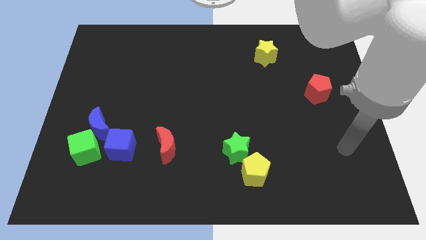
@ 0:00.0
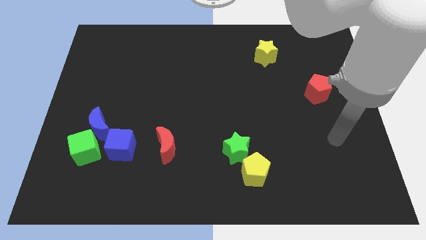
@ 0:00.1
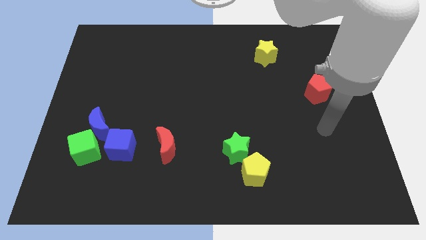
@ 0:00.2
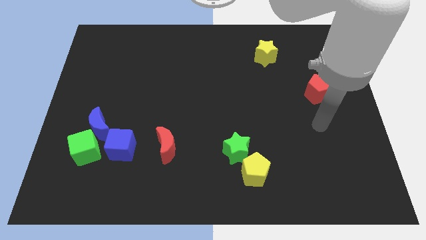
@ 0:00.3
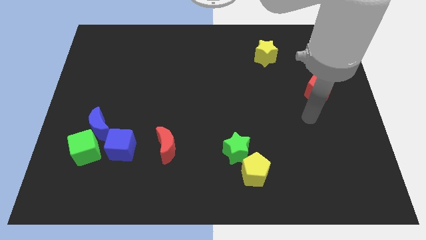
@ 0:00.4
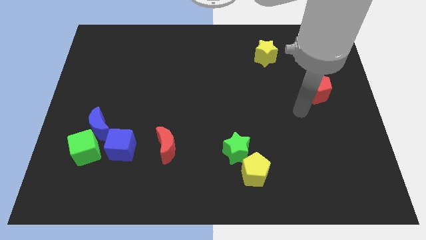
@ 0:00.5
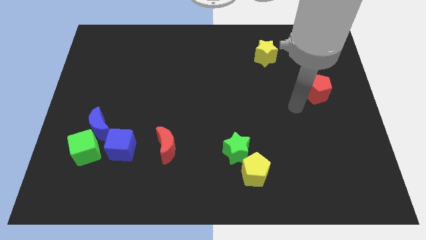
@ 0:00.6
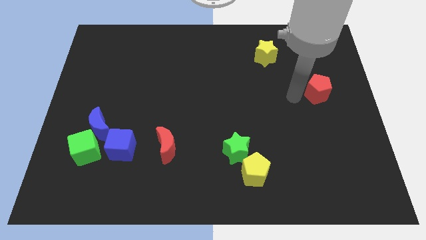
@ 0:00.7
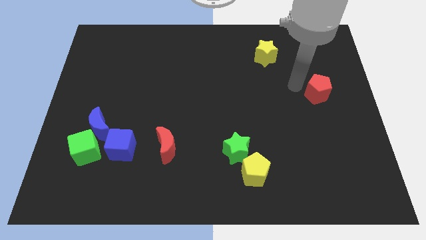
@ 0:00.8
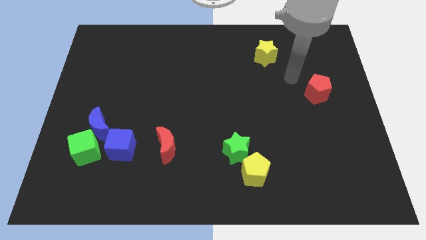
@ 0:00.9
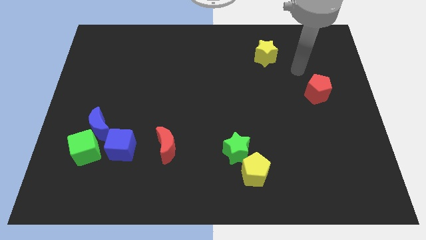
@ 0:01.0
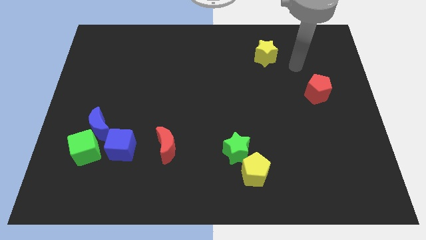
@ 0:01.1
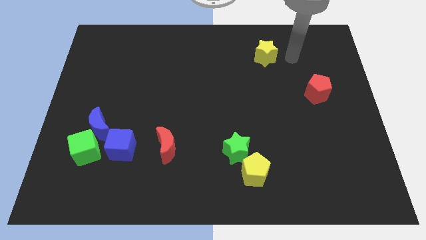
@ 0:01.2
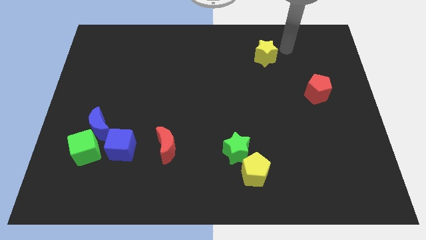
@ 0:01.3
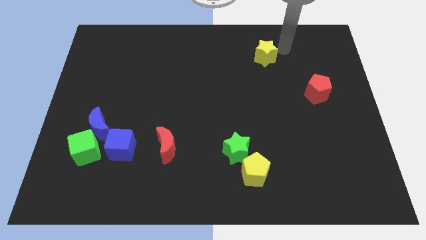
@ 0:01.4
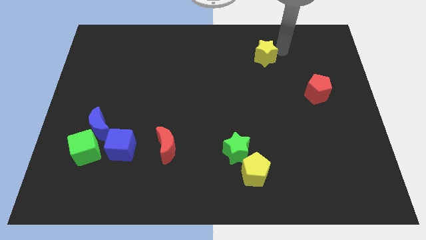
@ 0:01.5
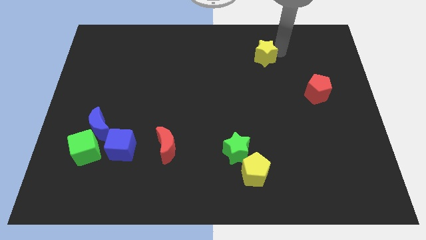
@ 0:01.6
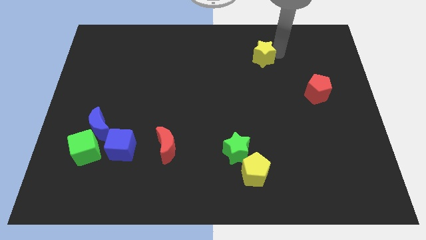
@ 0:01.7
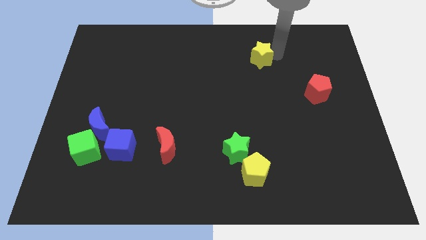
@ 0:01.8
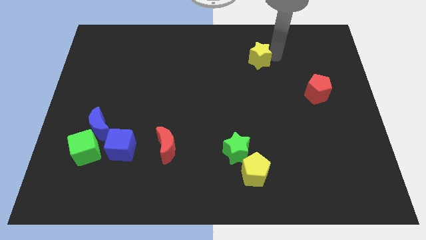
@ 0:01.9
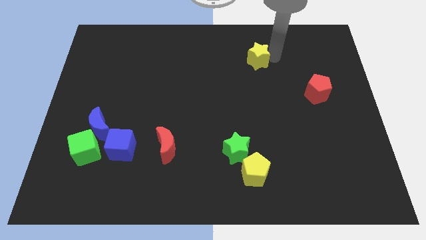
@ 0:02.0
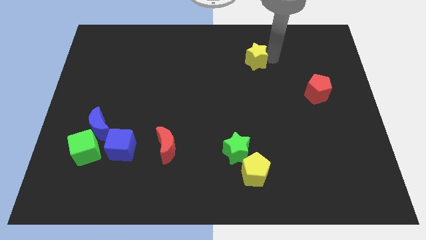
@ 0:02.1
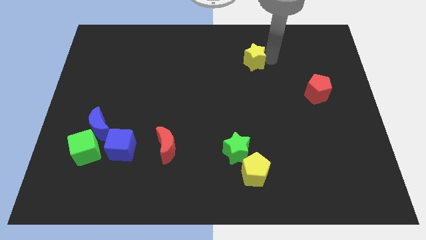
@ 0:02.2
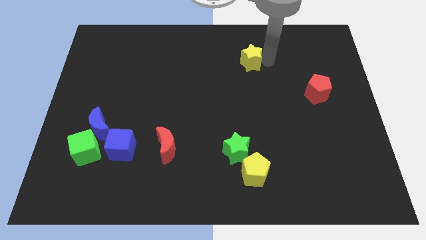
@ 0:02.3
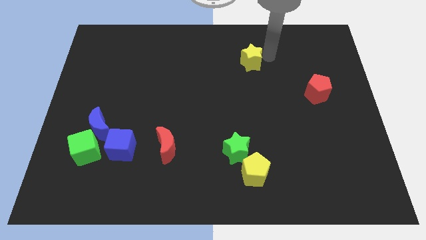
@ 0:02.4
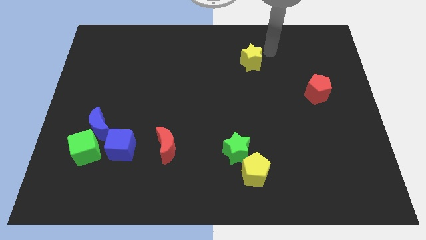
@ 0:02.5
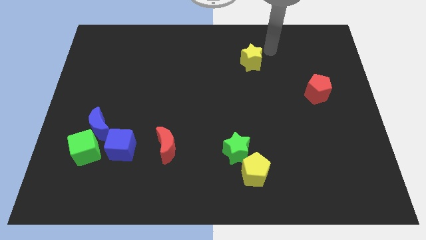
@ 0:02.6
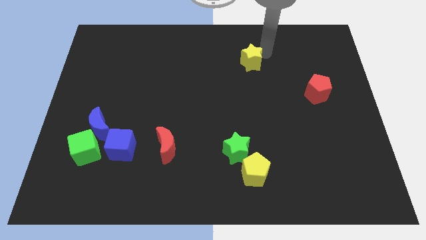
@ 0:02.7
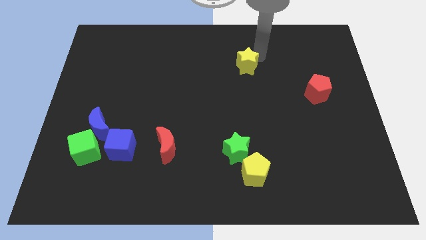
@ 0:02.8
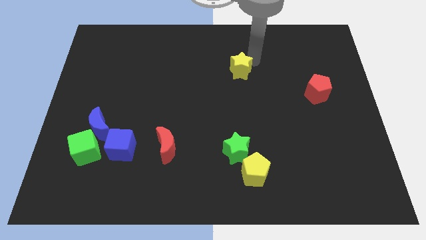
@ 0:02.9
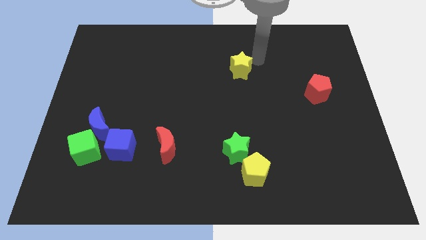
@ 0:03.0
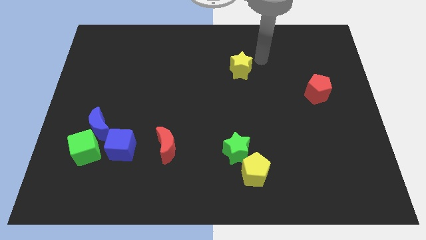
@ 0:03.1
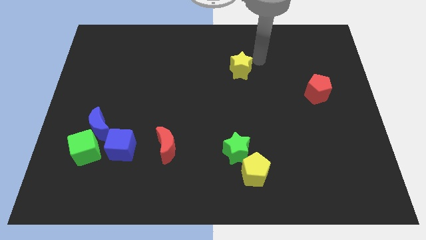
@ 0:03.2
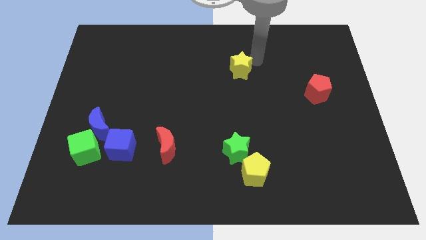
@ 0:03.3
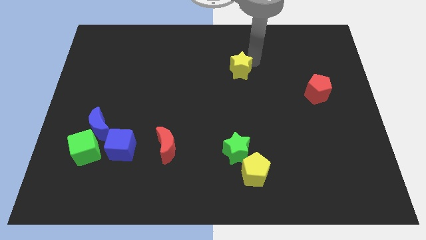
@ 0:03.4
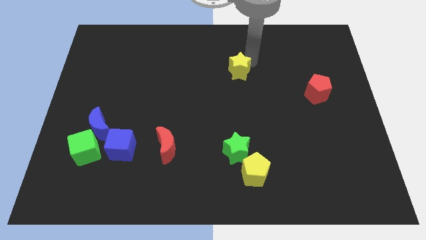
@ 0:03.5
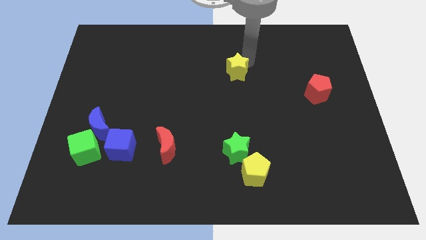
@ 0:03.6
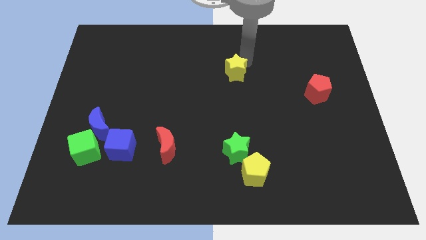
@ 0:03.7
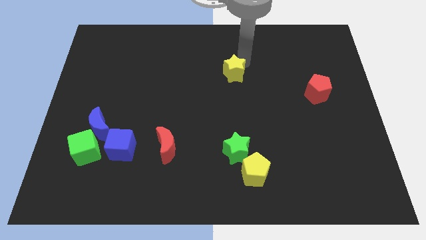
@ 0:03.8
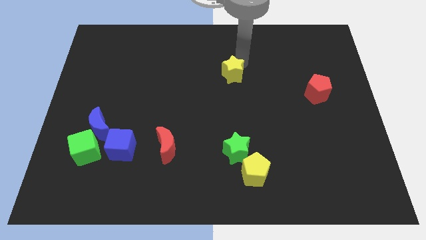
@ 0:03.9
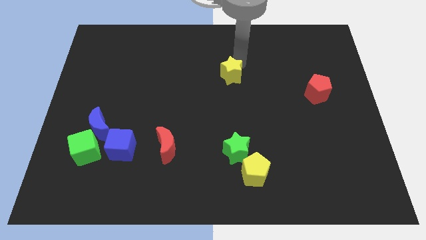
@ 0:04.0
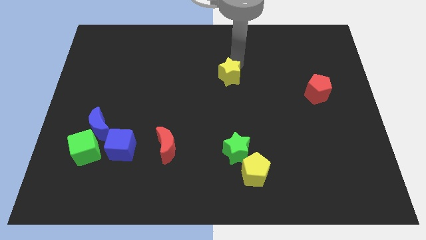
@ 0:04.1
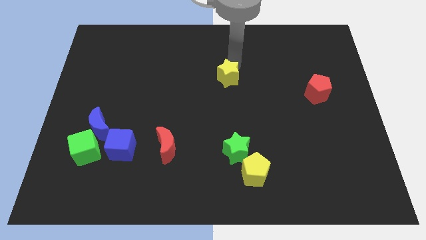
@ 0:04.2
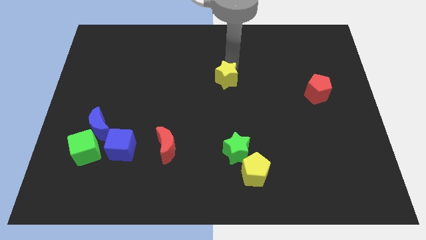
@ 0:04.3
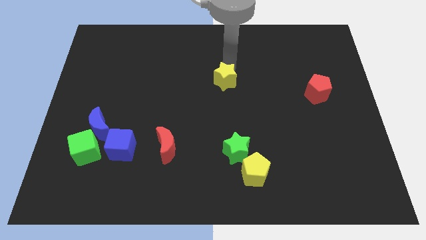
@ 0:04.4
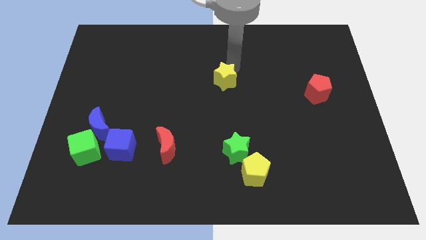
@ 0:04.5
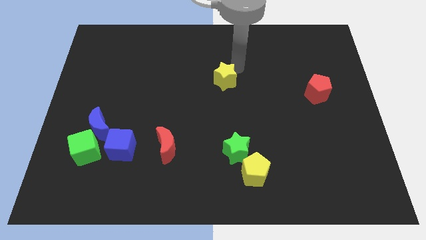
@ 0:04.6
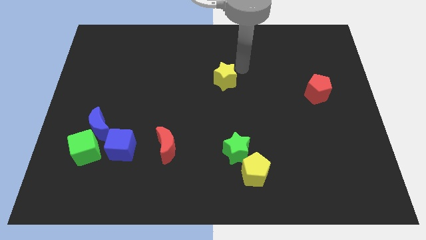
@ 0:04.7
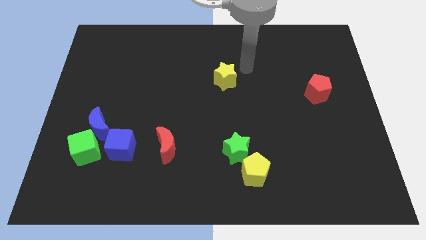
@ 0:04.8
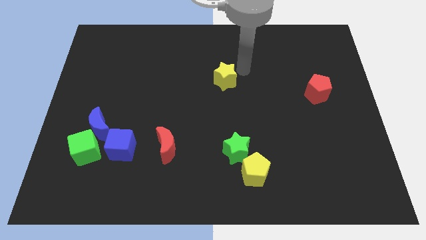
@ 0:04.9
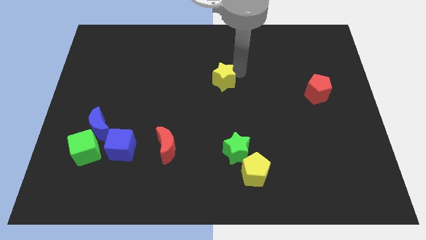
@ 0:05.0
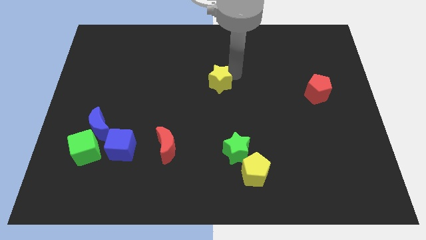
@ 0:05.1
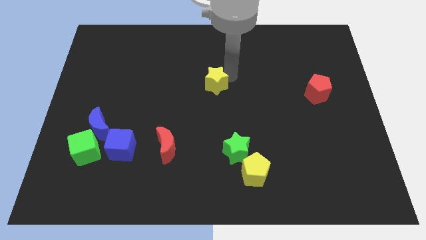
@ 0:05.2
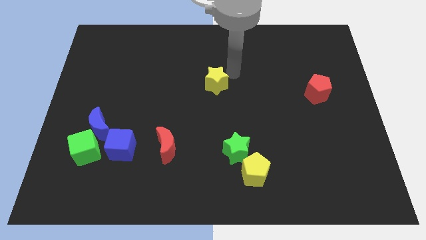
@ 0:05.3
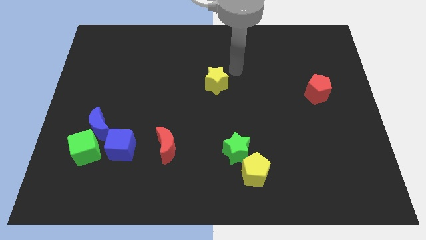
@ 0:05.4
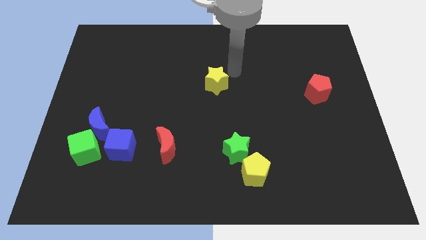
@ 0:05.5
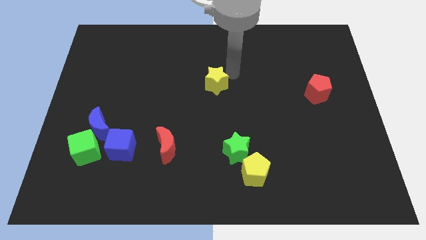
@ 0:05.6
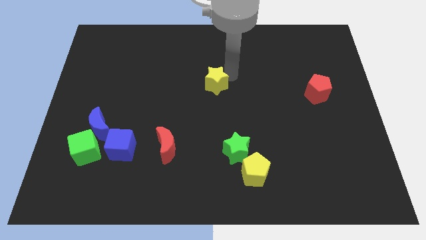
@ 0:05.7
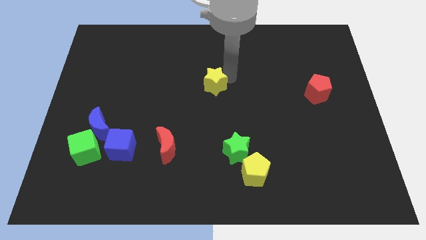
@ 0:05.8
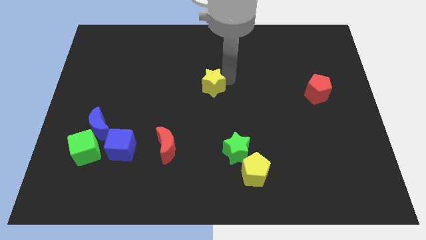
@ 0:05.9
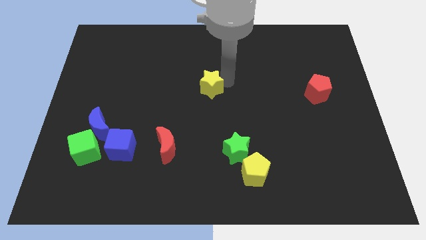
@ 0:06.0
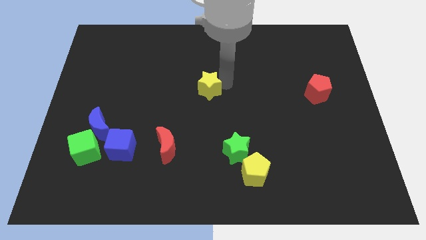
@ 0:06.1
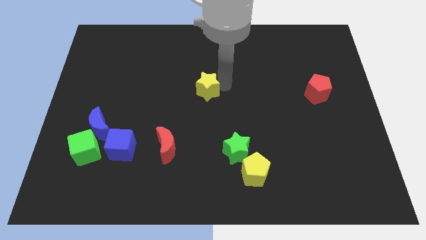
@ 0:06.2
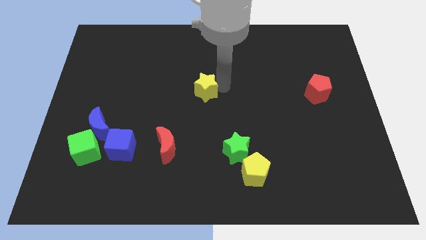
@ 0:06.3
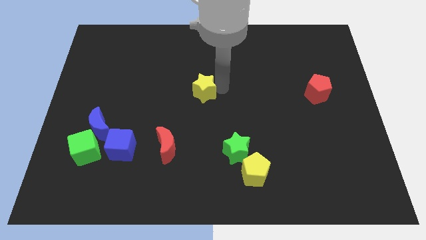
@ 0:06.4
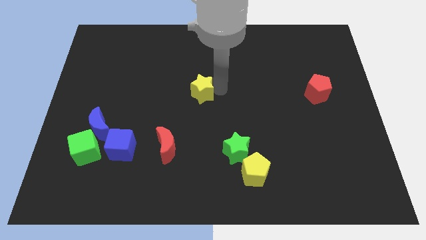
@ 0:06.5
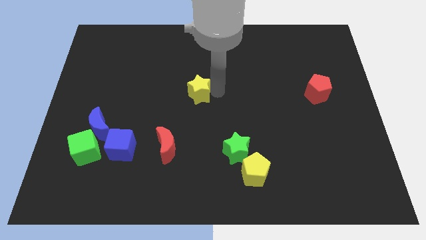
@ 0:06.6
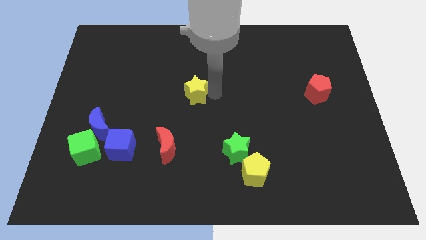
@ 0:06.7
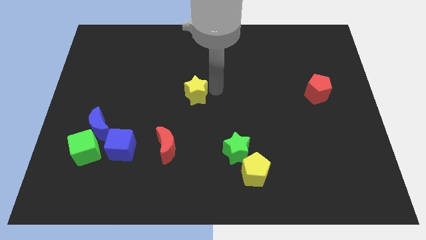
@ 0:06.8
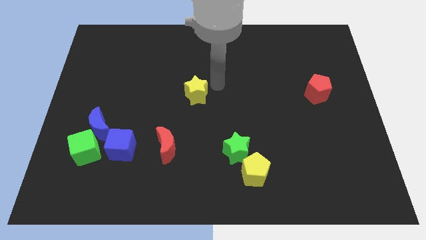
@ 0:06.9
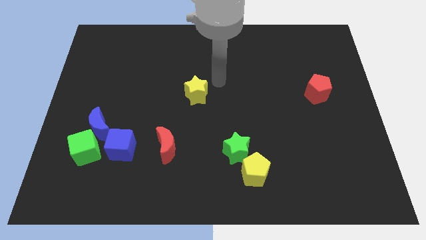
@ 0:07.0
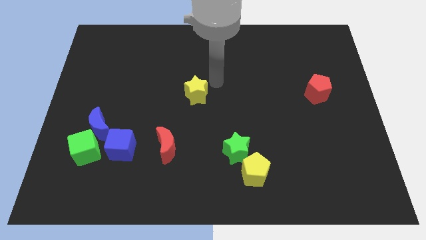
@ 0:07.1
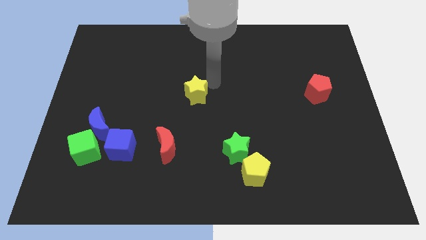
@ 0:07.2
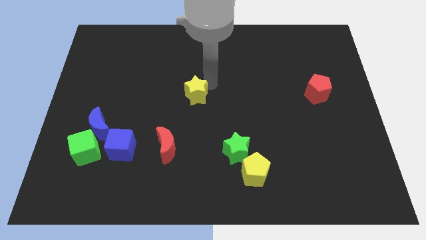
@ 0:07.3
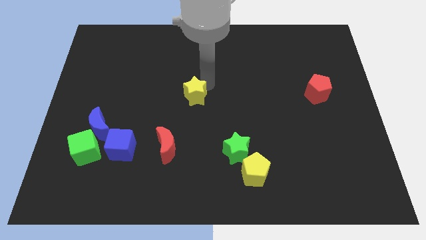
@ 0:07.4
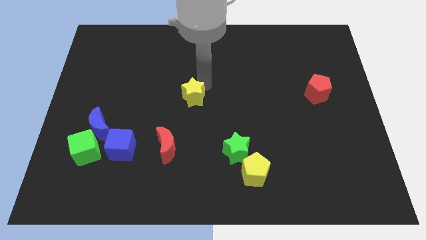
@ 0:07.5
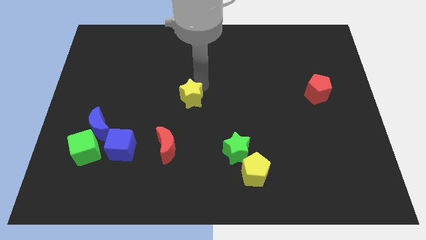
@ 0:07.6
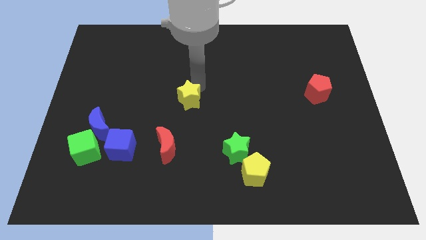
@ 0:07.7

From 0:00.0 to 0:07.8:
push the yellow star above the red moon
